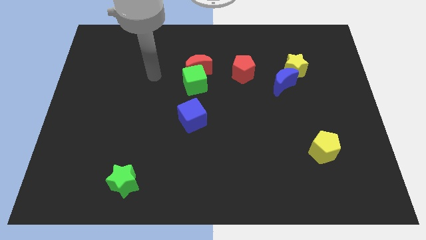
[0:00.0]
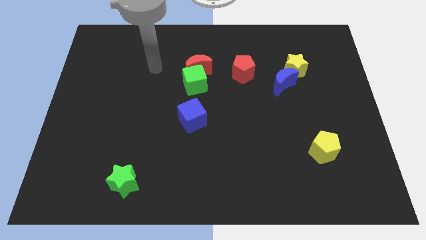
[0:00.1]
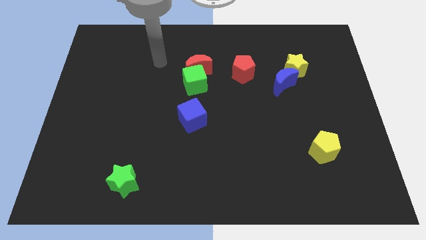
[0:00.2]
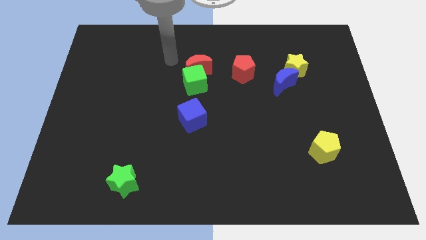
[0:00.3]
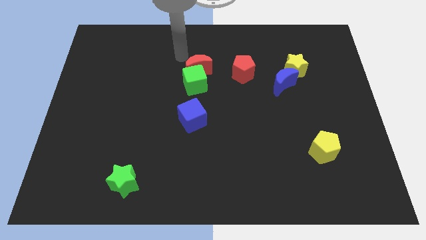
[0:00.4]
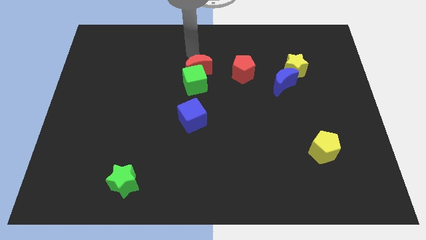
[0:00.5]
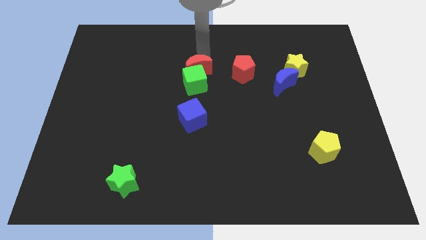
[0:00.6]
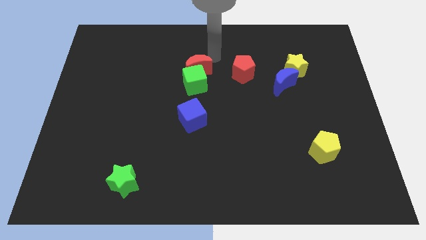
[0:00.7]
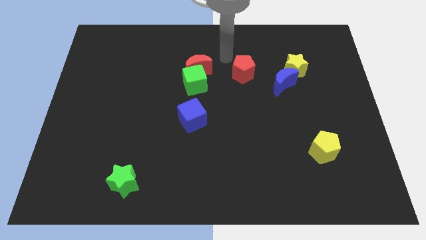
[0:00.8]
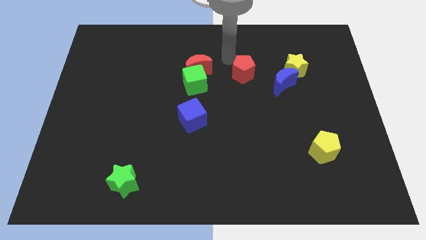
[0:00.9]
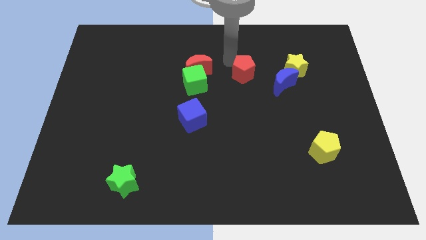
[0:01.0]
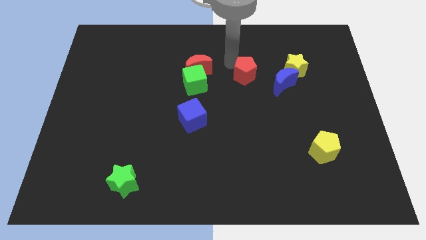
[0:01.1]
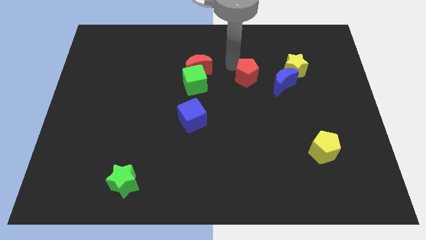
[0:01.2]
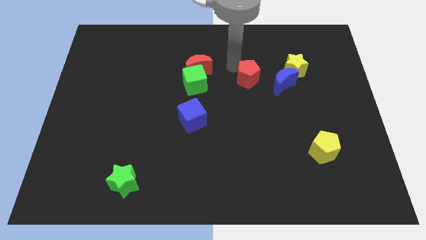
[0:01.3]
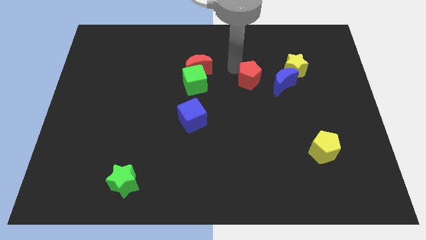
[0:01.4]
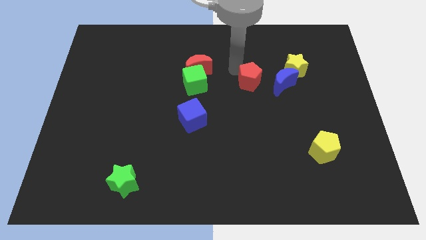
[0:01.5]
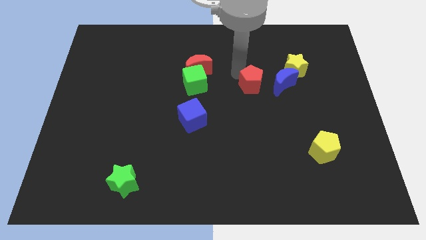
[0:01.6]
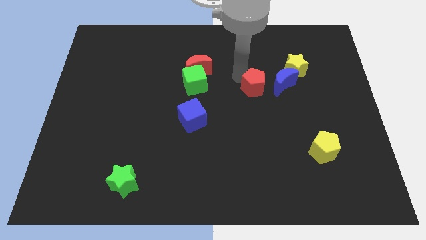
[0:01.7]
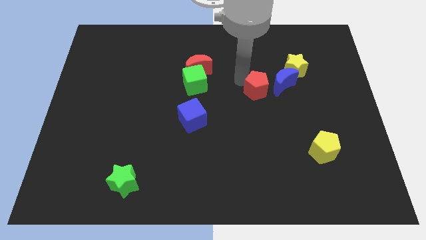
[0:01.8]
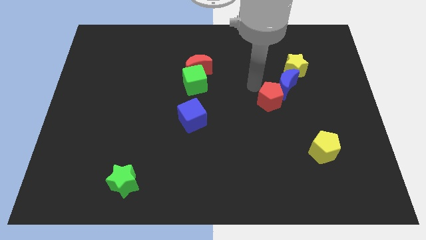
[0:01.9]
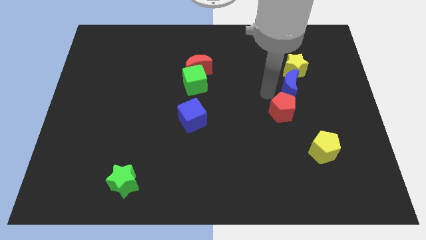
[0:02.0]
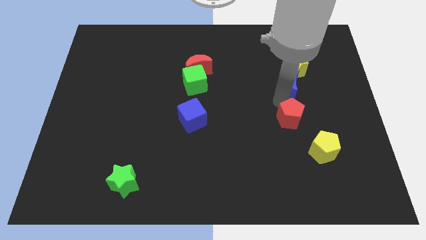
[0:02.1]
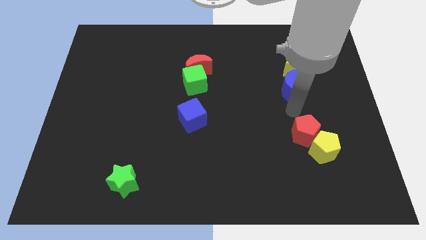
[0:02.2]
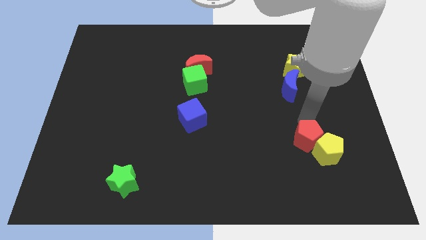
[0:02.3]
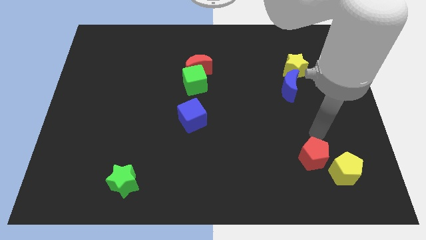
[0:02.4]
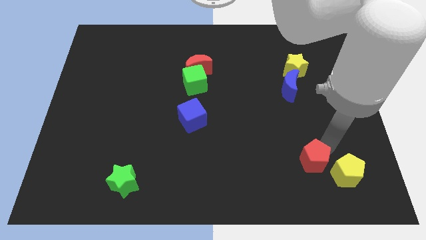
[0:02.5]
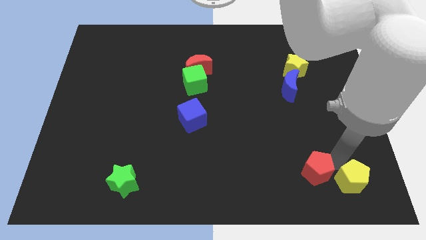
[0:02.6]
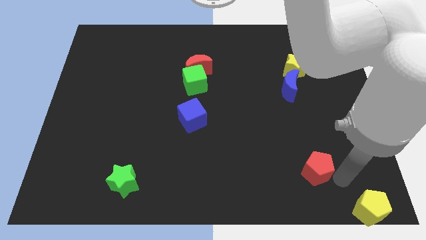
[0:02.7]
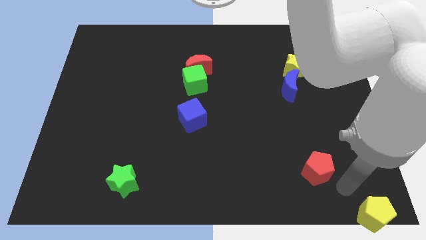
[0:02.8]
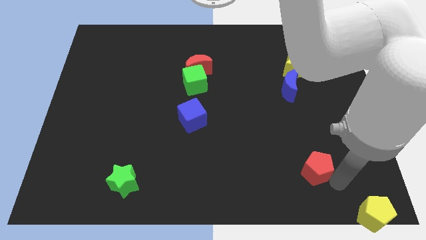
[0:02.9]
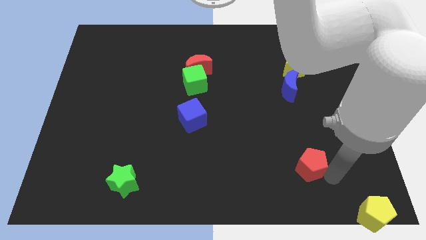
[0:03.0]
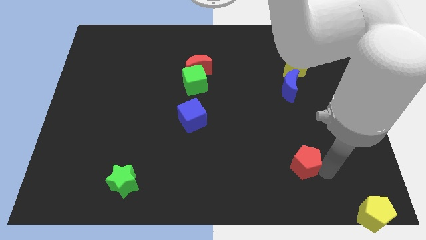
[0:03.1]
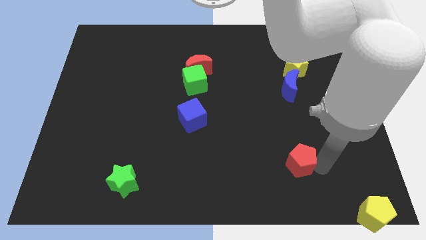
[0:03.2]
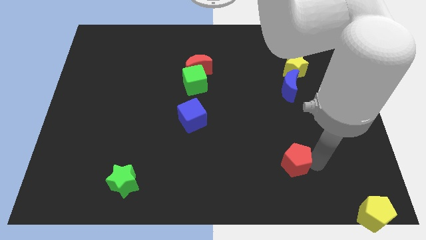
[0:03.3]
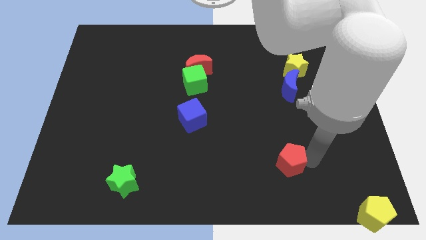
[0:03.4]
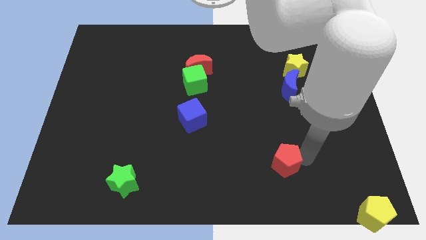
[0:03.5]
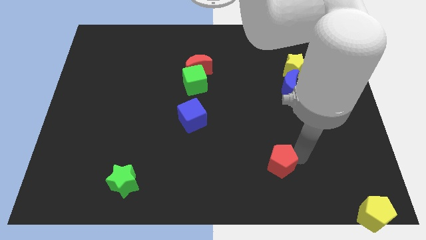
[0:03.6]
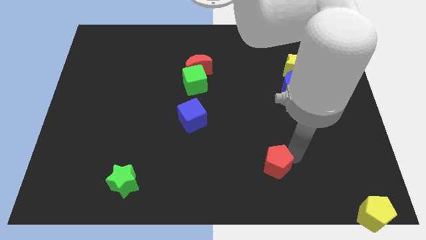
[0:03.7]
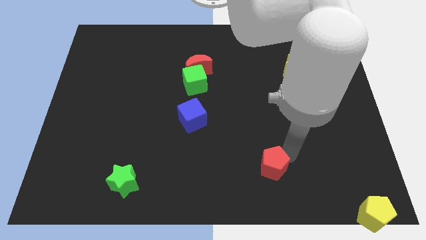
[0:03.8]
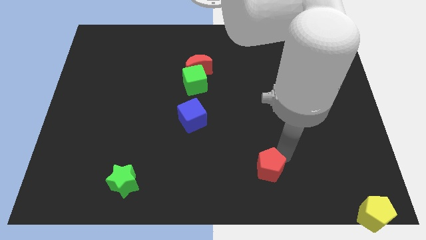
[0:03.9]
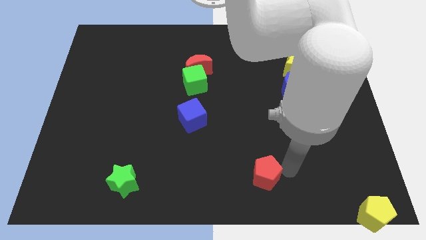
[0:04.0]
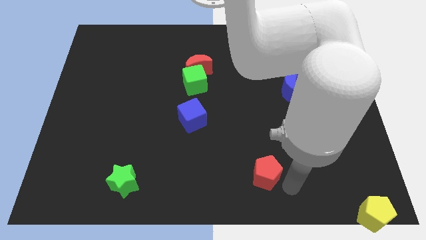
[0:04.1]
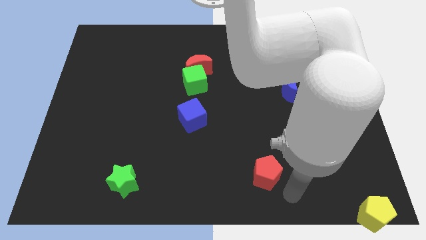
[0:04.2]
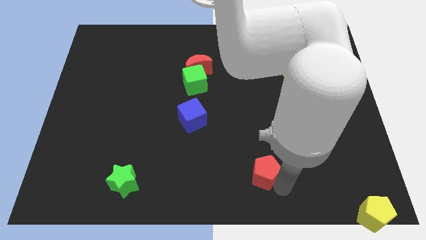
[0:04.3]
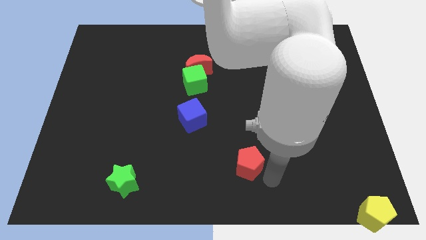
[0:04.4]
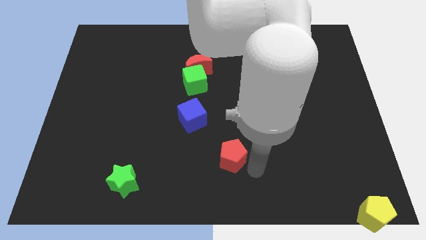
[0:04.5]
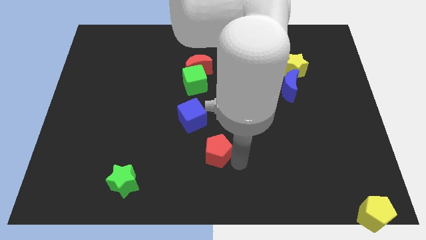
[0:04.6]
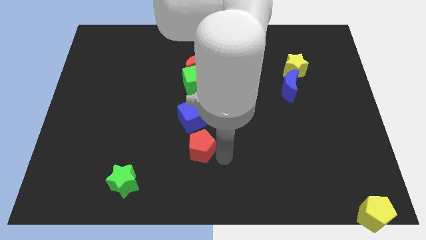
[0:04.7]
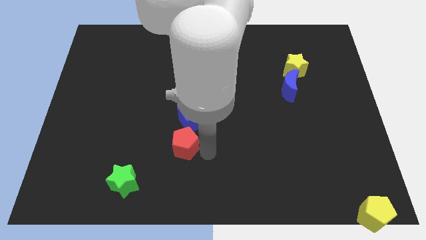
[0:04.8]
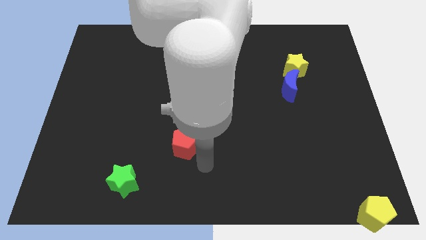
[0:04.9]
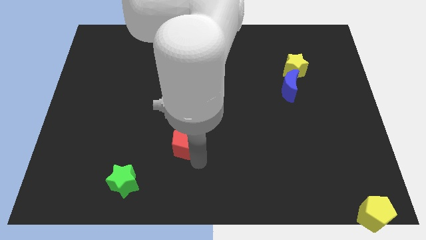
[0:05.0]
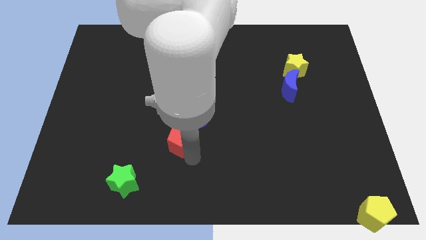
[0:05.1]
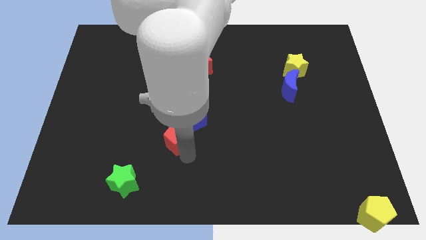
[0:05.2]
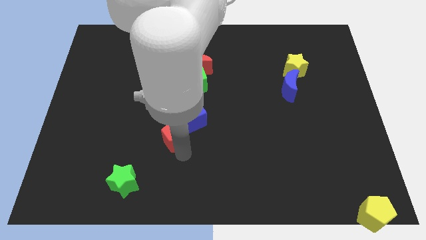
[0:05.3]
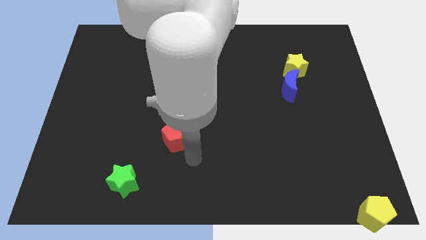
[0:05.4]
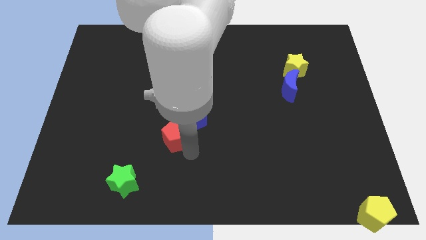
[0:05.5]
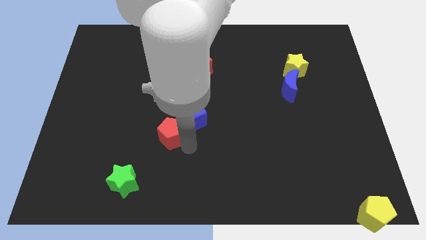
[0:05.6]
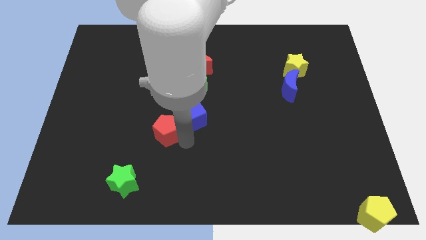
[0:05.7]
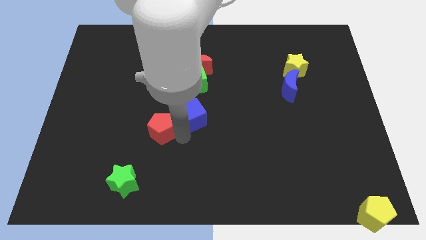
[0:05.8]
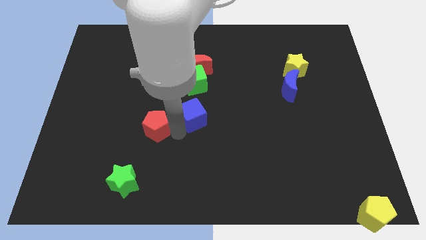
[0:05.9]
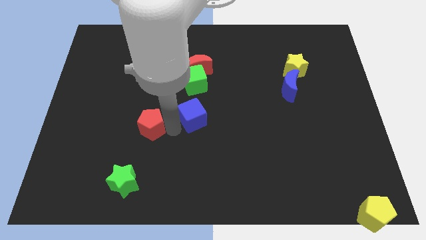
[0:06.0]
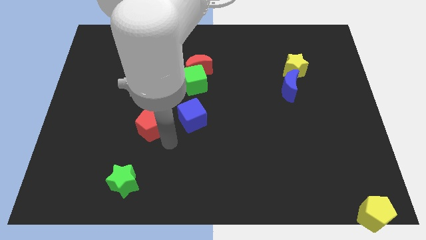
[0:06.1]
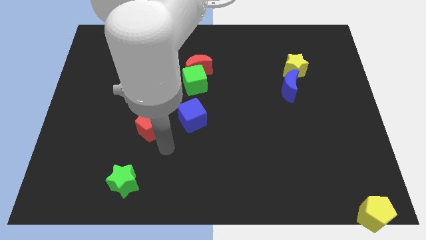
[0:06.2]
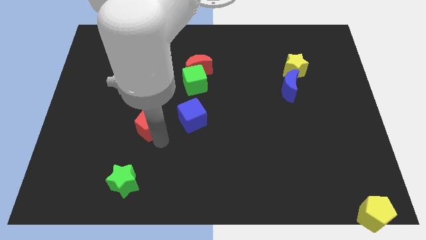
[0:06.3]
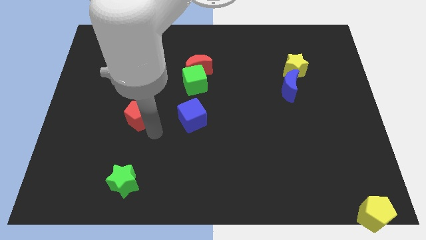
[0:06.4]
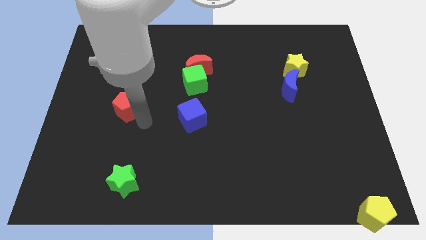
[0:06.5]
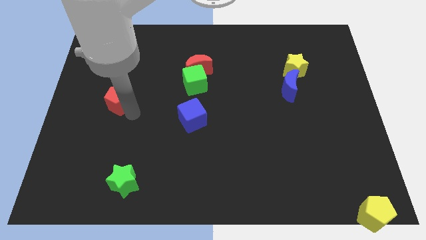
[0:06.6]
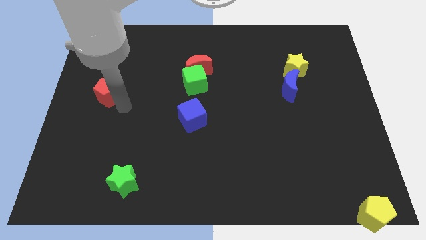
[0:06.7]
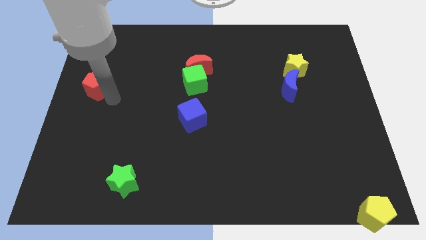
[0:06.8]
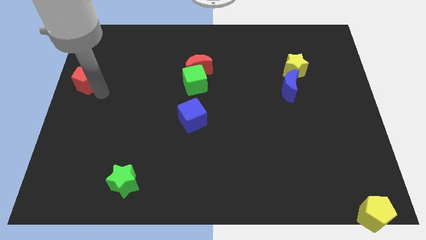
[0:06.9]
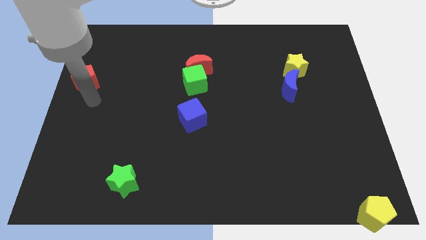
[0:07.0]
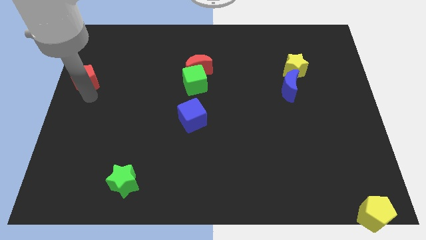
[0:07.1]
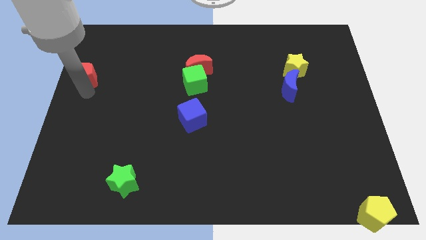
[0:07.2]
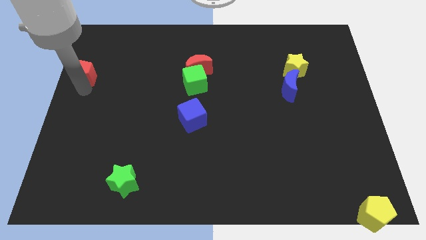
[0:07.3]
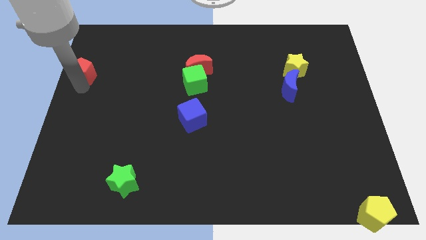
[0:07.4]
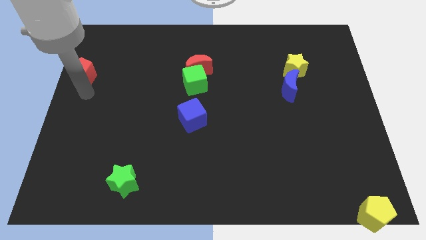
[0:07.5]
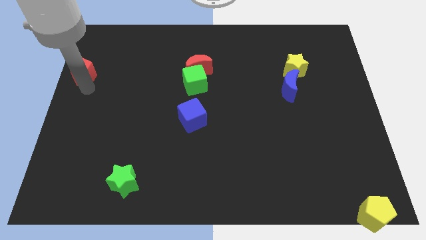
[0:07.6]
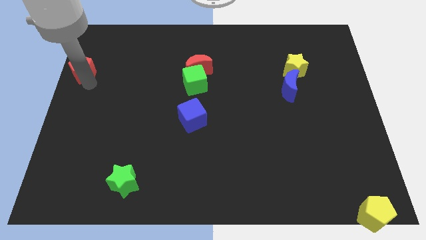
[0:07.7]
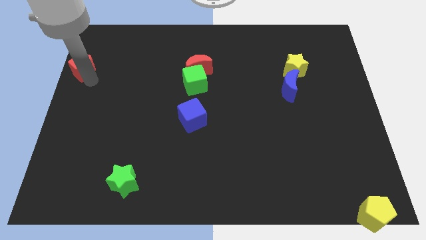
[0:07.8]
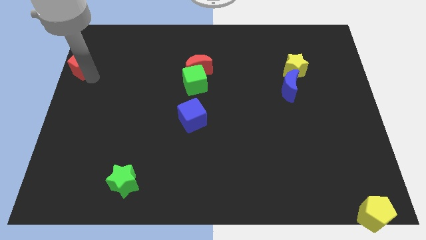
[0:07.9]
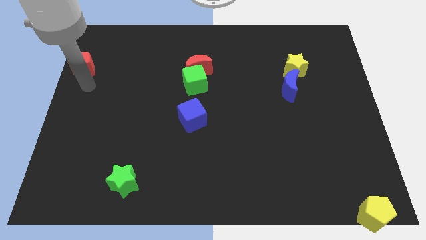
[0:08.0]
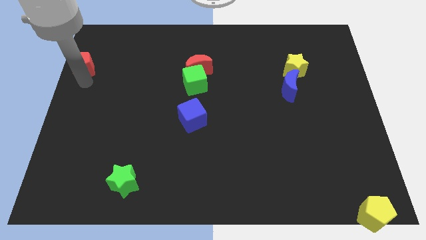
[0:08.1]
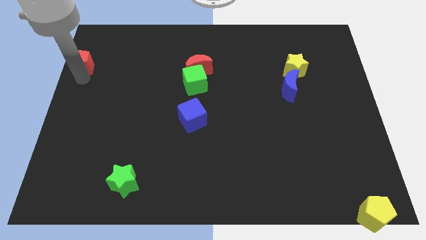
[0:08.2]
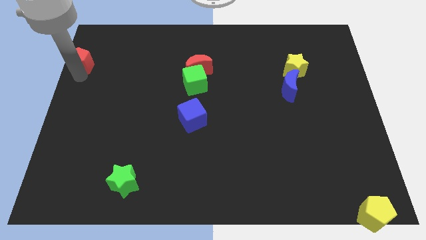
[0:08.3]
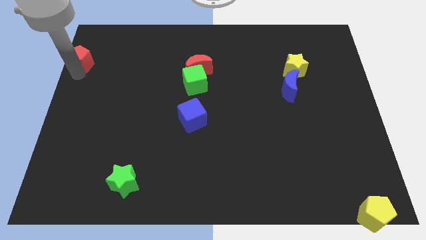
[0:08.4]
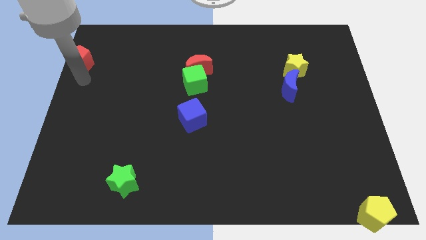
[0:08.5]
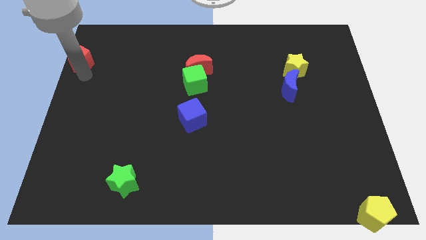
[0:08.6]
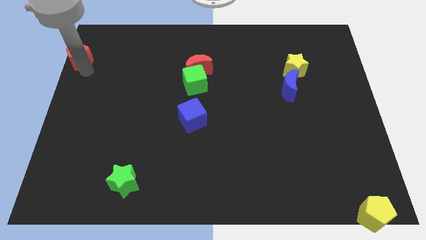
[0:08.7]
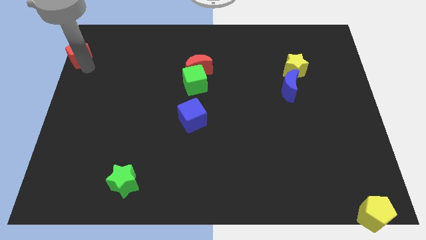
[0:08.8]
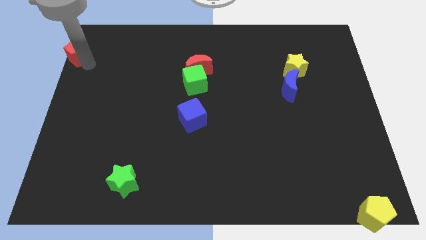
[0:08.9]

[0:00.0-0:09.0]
put the red pentagon to the upper left corner
